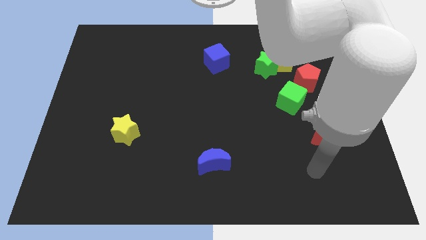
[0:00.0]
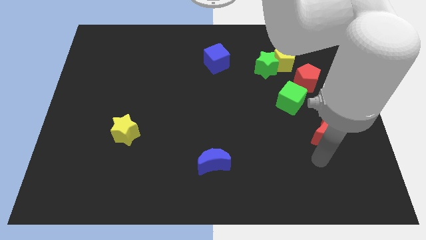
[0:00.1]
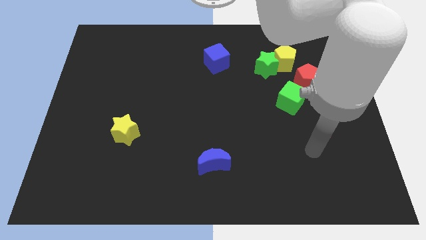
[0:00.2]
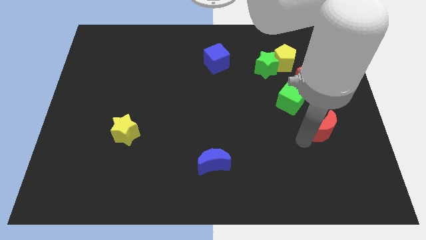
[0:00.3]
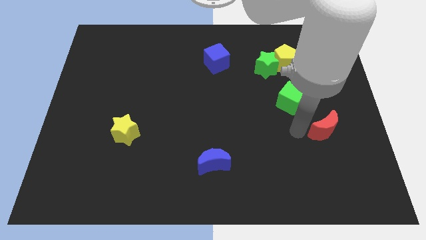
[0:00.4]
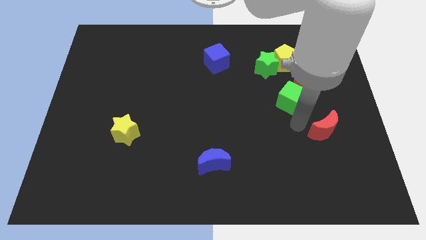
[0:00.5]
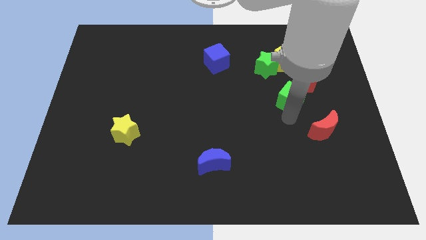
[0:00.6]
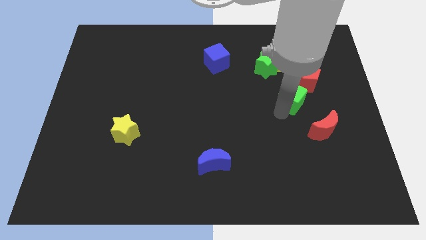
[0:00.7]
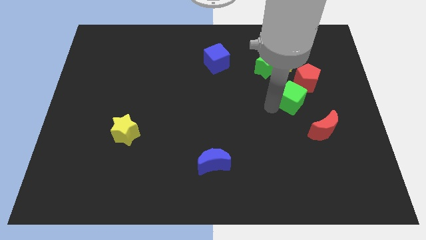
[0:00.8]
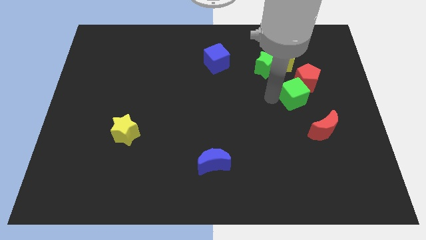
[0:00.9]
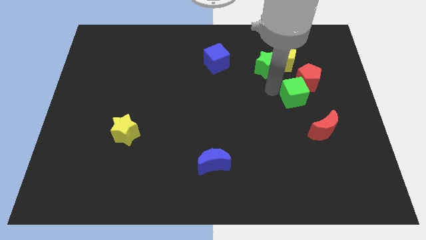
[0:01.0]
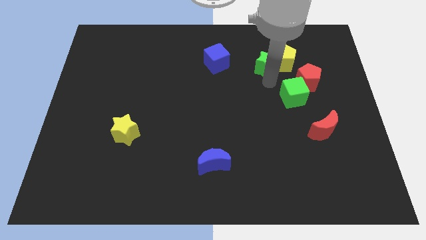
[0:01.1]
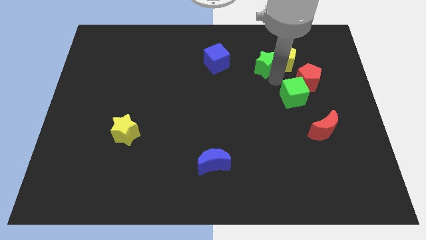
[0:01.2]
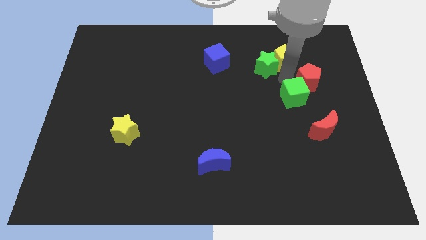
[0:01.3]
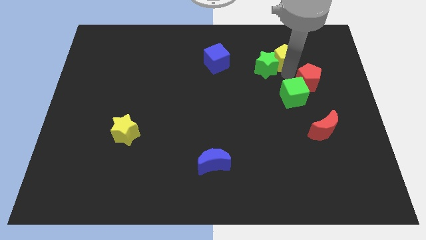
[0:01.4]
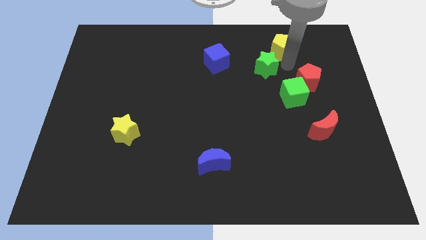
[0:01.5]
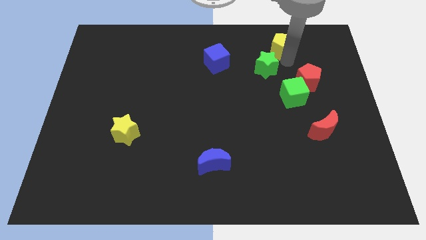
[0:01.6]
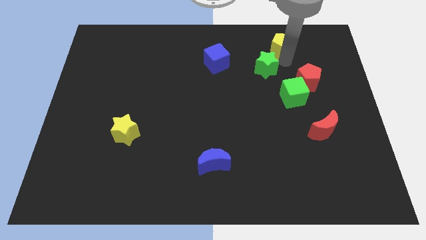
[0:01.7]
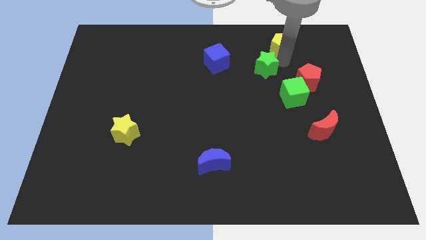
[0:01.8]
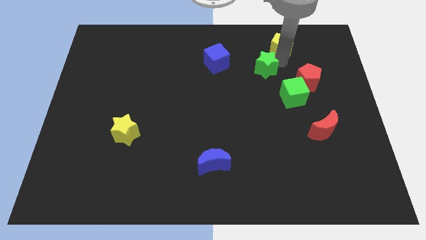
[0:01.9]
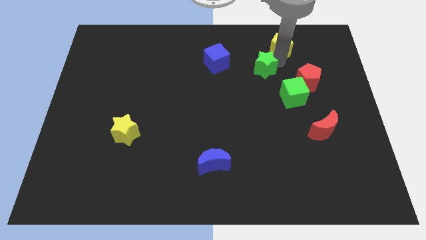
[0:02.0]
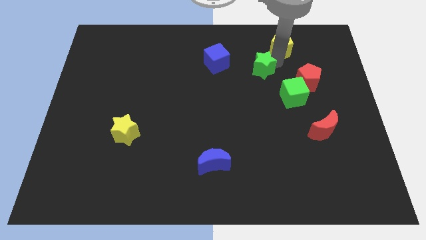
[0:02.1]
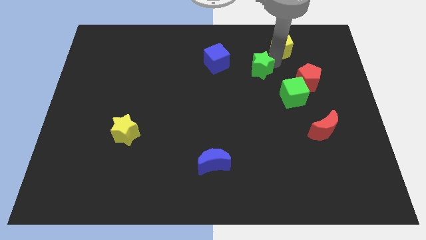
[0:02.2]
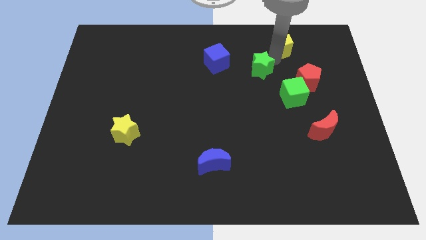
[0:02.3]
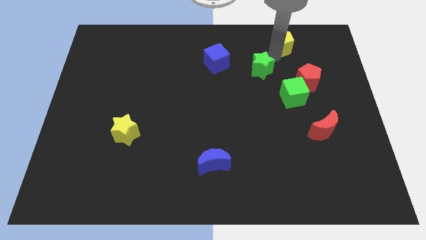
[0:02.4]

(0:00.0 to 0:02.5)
move the green star away from the yellow pentagon

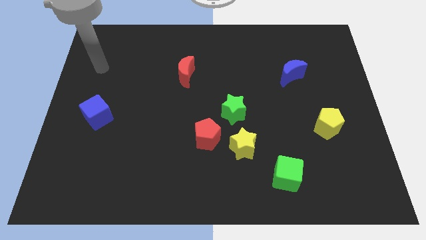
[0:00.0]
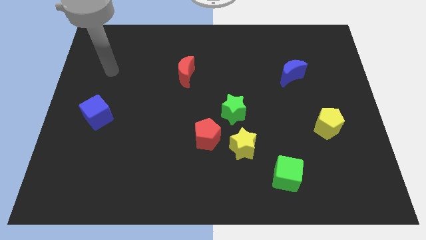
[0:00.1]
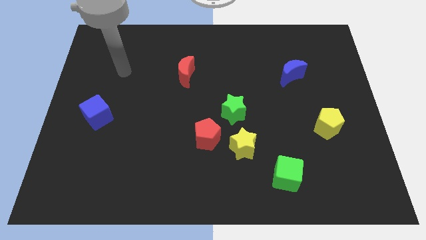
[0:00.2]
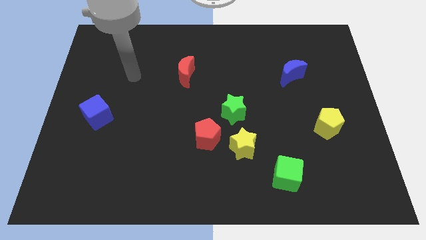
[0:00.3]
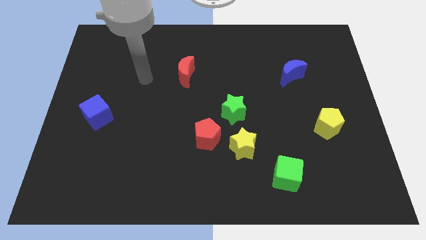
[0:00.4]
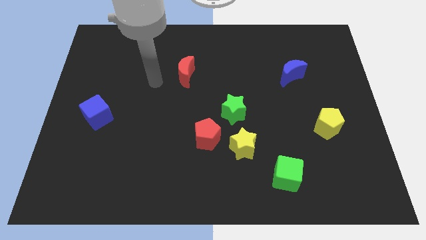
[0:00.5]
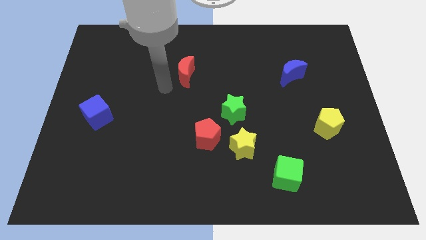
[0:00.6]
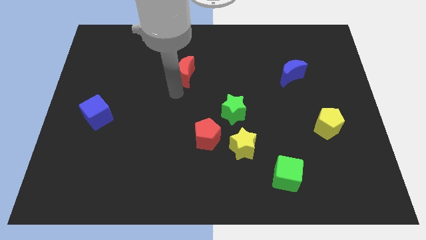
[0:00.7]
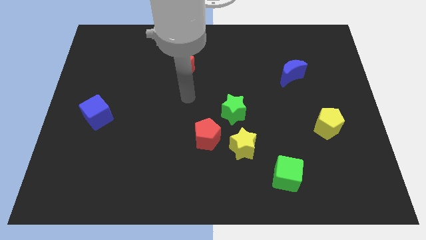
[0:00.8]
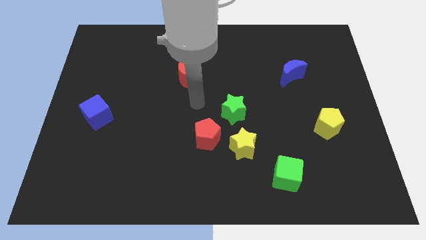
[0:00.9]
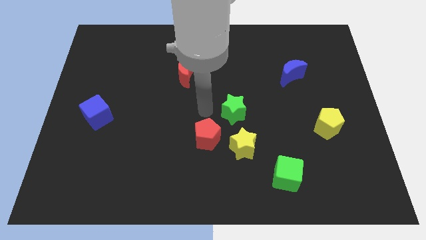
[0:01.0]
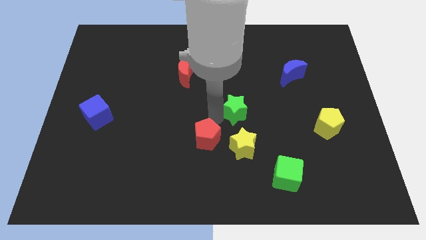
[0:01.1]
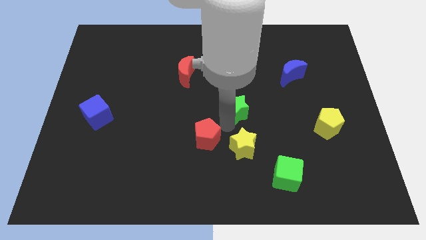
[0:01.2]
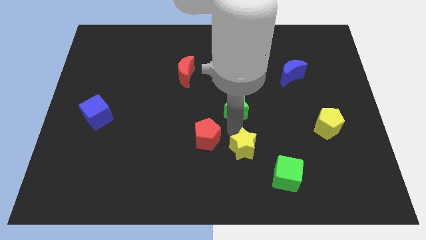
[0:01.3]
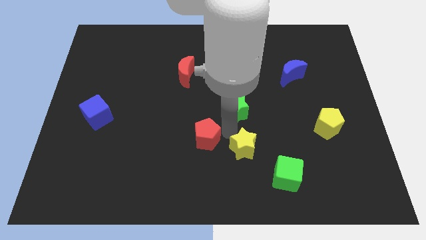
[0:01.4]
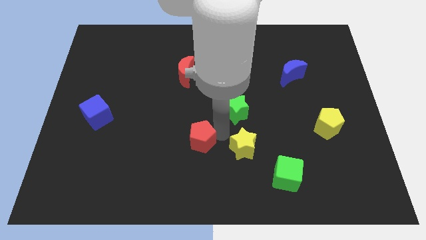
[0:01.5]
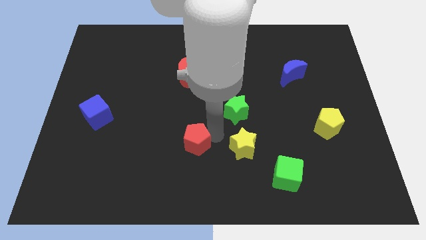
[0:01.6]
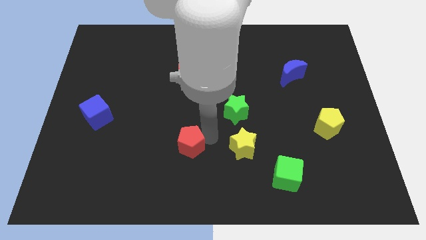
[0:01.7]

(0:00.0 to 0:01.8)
move the red pentagon away from the yellow star and green star

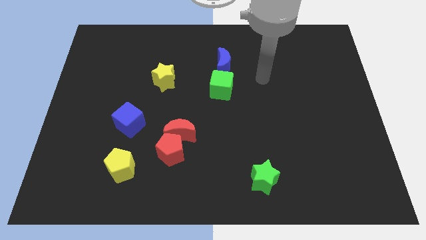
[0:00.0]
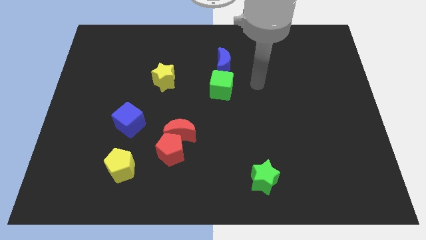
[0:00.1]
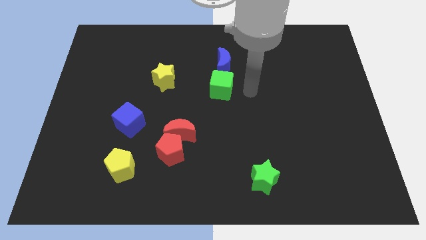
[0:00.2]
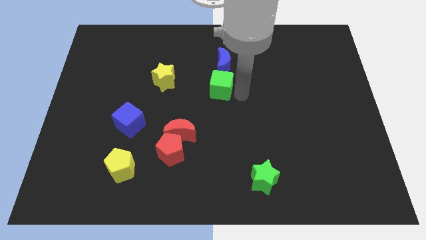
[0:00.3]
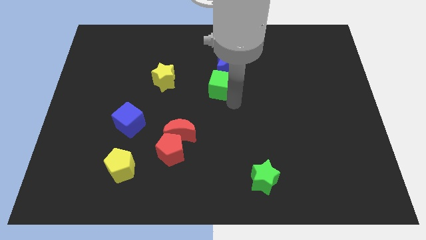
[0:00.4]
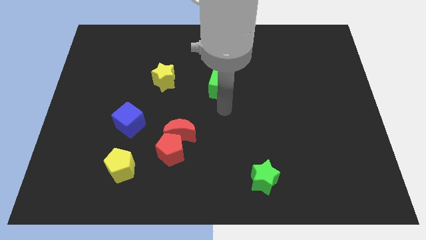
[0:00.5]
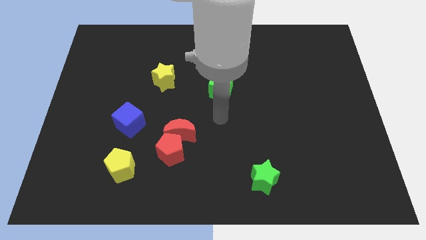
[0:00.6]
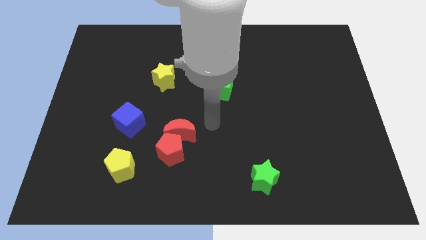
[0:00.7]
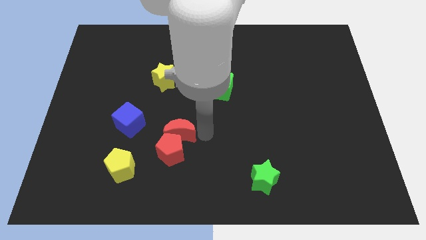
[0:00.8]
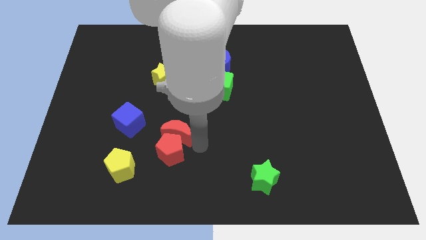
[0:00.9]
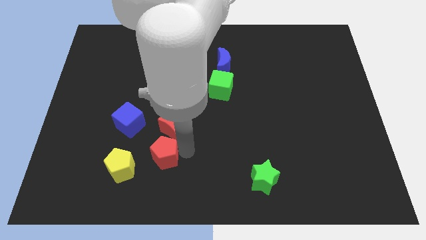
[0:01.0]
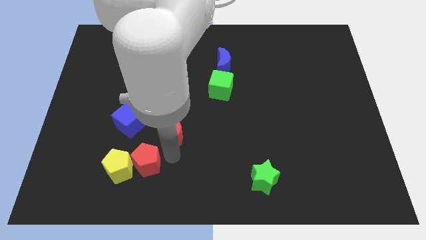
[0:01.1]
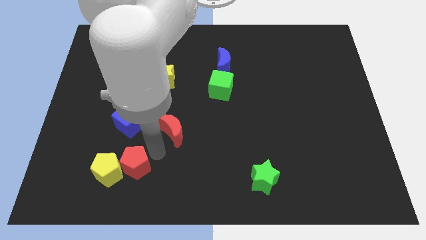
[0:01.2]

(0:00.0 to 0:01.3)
separate the red moon from the red pentagon

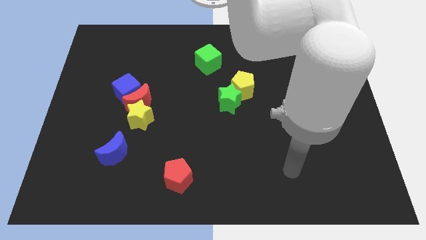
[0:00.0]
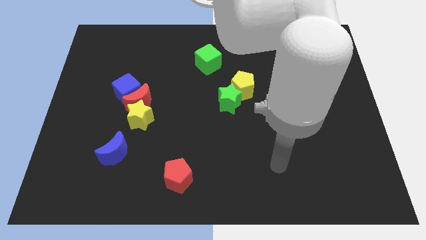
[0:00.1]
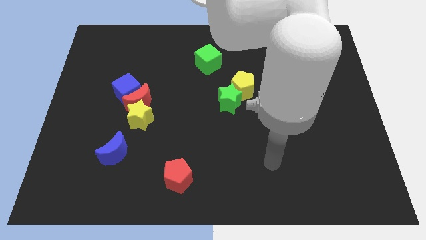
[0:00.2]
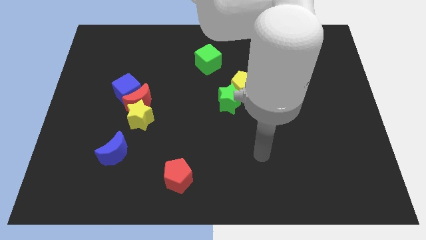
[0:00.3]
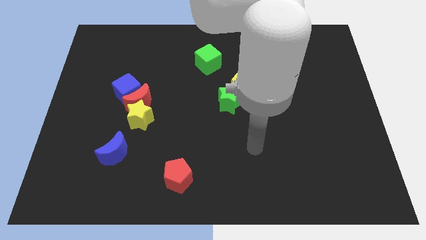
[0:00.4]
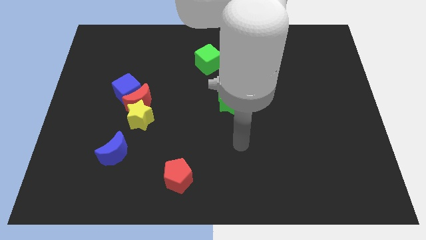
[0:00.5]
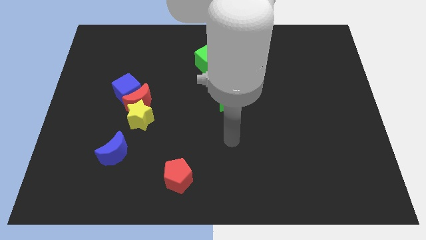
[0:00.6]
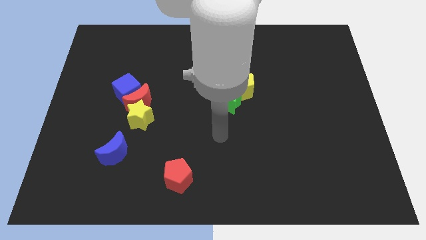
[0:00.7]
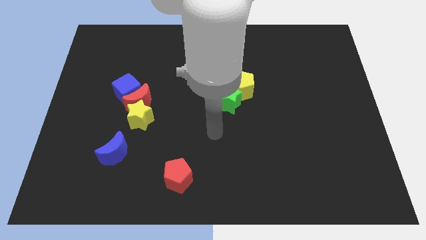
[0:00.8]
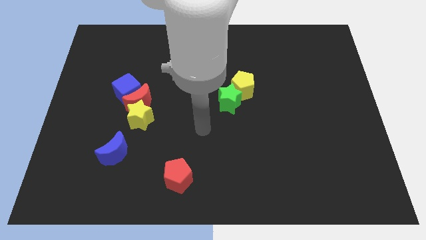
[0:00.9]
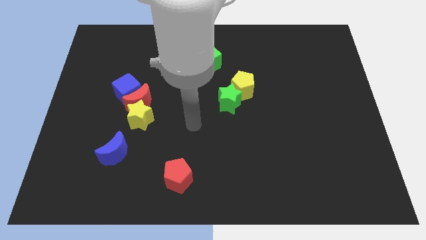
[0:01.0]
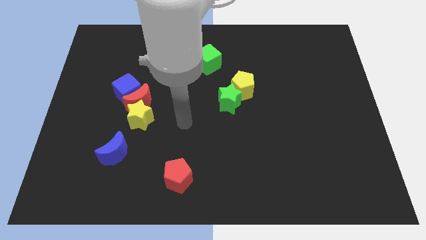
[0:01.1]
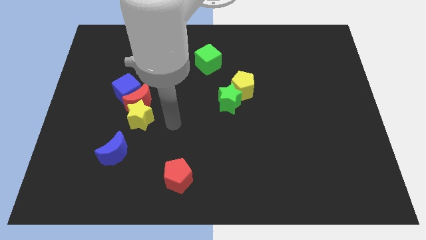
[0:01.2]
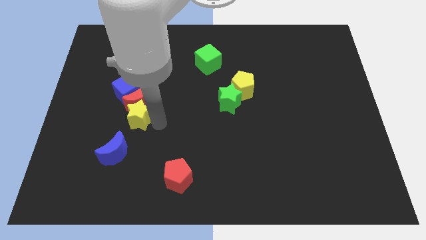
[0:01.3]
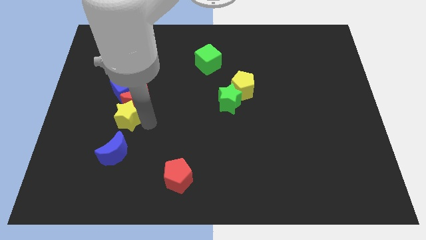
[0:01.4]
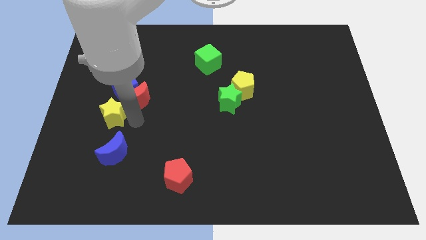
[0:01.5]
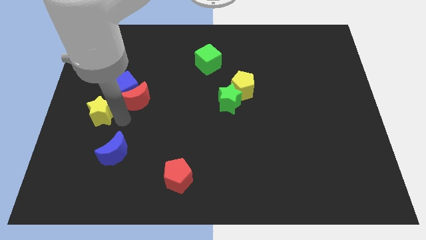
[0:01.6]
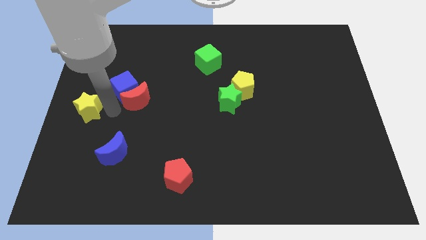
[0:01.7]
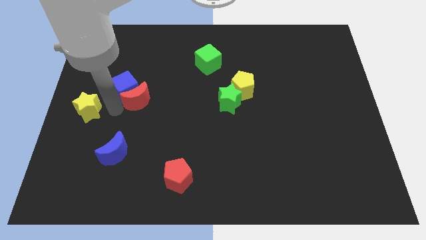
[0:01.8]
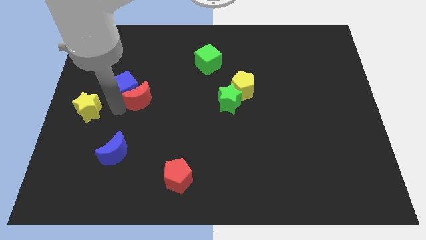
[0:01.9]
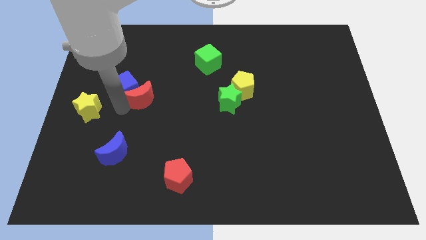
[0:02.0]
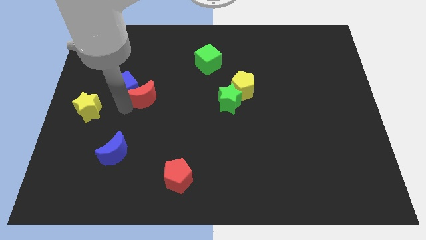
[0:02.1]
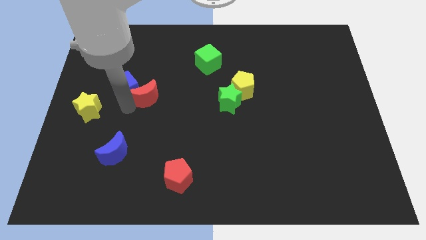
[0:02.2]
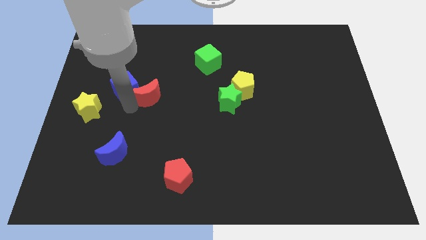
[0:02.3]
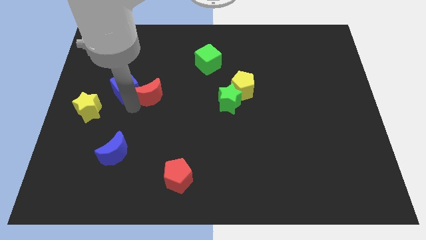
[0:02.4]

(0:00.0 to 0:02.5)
separate the red moon from the blue cube and yellow star

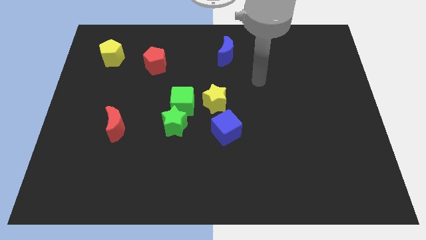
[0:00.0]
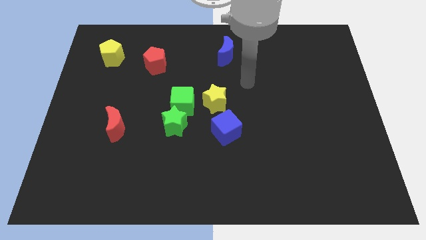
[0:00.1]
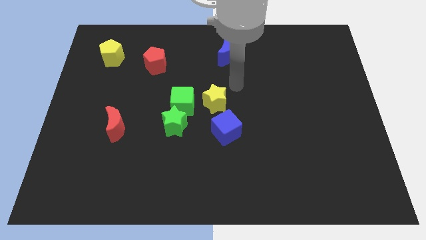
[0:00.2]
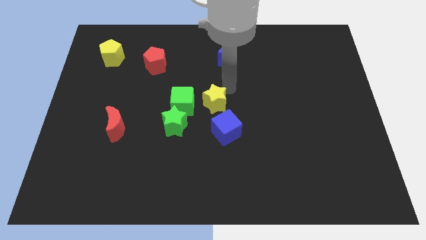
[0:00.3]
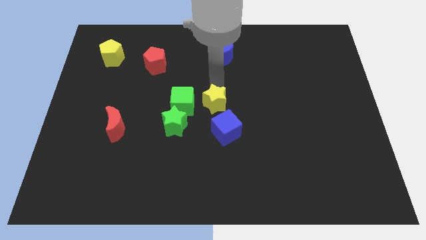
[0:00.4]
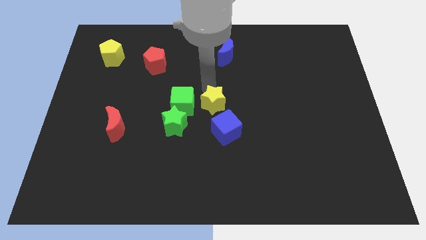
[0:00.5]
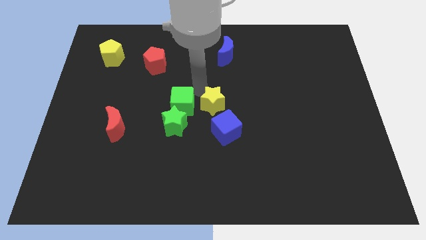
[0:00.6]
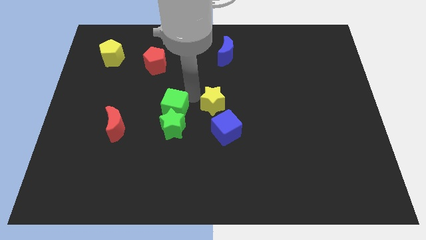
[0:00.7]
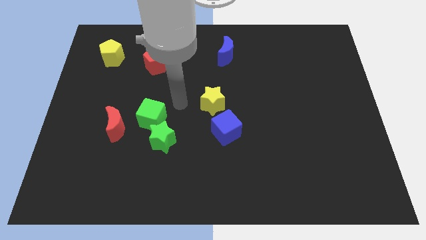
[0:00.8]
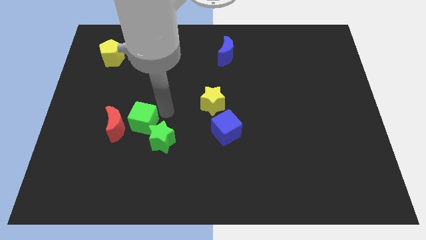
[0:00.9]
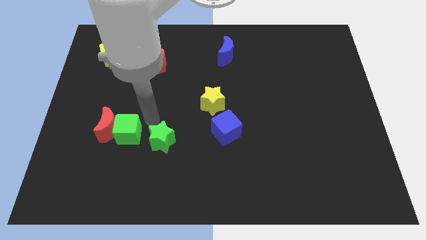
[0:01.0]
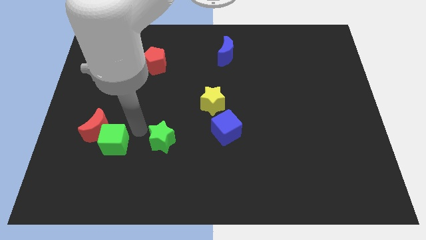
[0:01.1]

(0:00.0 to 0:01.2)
move the green star away from the green cube
